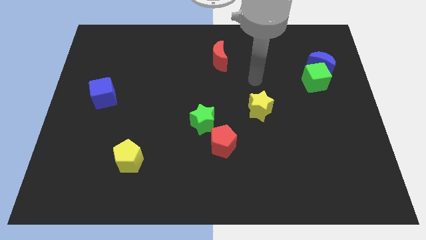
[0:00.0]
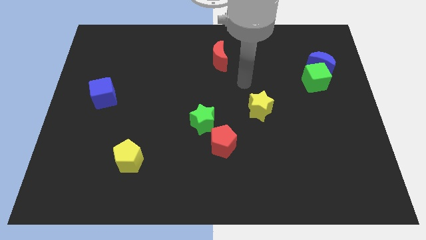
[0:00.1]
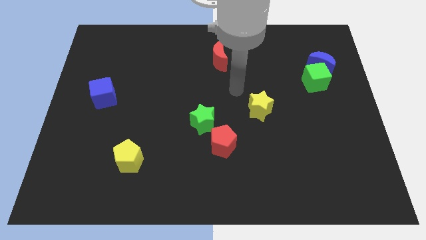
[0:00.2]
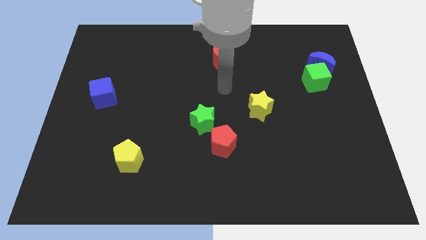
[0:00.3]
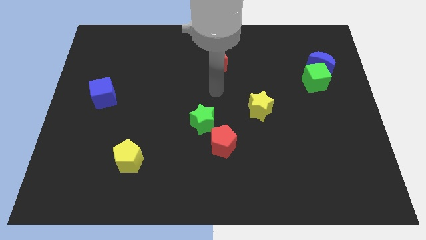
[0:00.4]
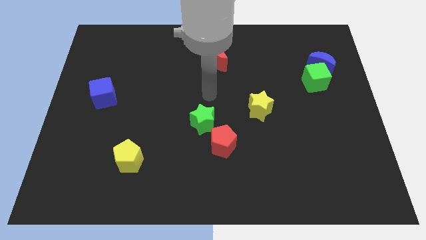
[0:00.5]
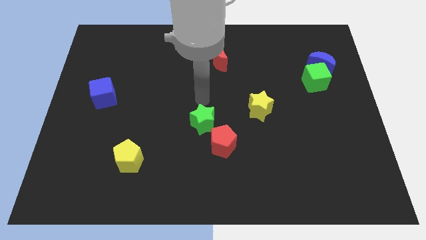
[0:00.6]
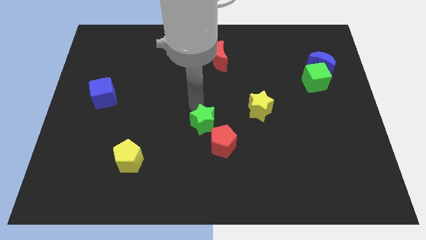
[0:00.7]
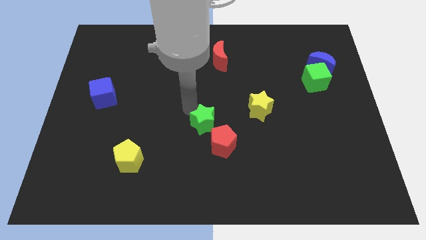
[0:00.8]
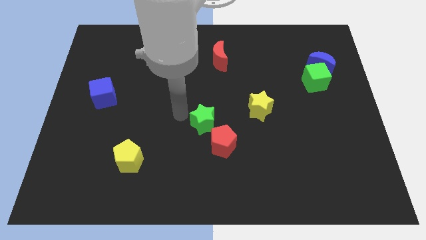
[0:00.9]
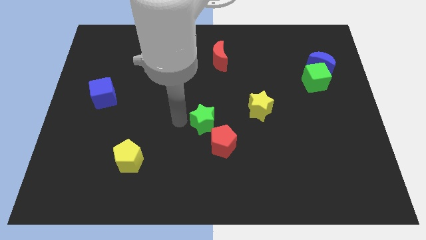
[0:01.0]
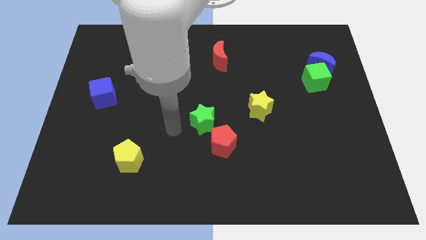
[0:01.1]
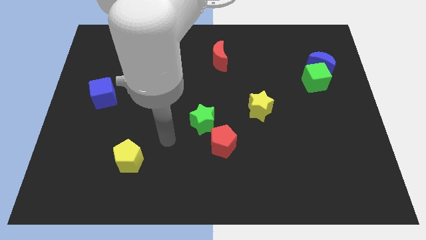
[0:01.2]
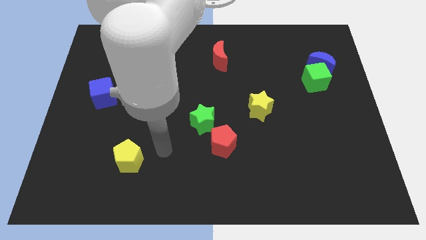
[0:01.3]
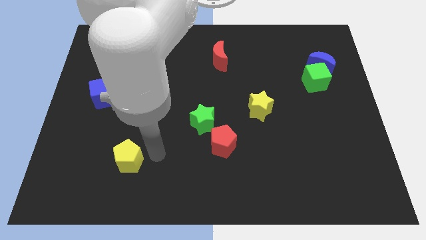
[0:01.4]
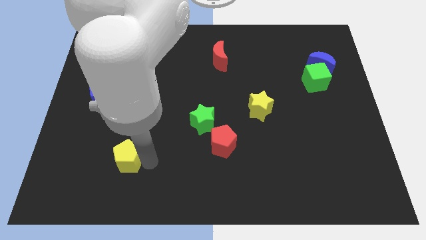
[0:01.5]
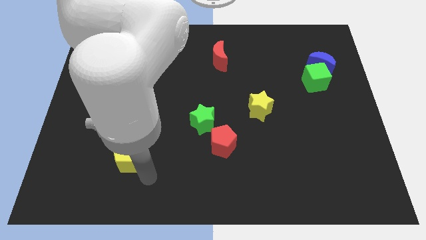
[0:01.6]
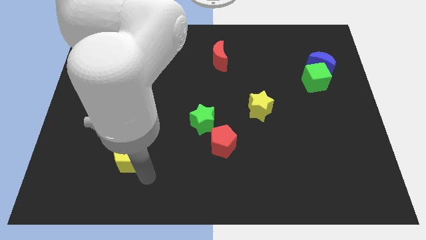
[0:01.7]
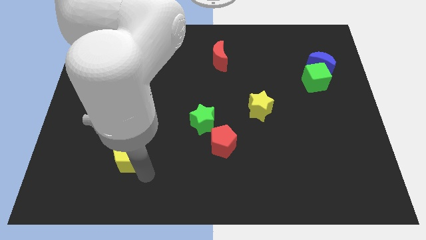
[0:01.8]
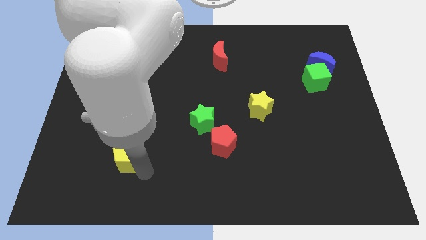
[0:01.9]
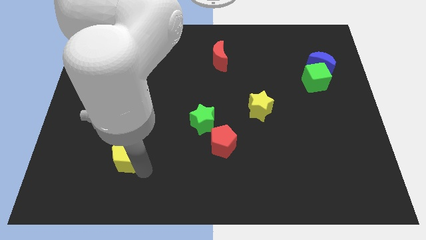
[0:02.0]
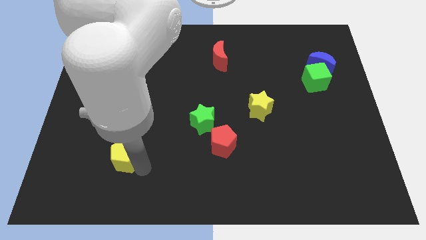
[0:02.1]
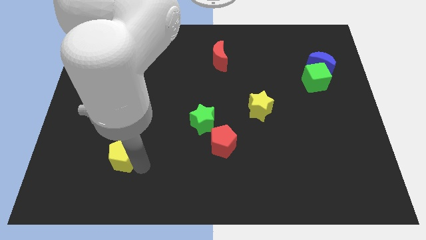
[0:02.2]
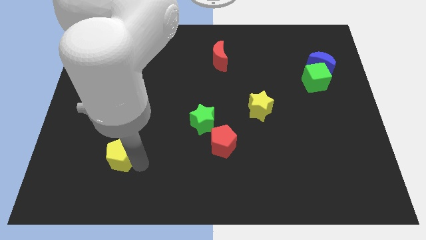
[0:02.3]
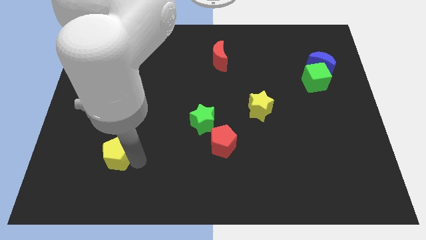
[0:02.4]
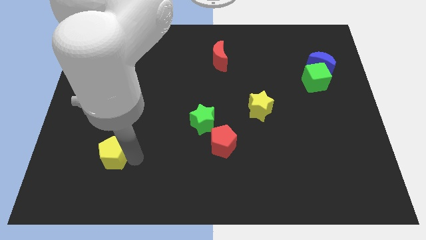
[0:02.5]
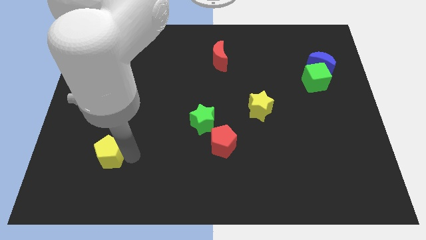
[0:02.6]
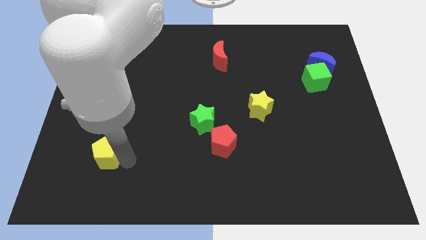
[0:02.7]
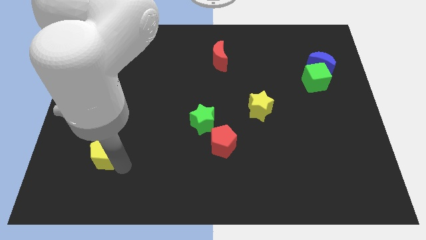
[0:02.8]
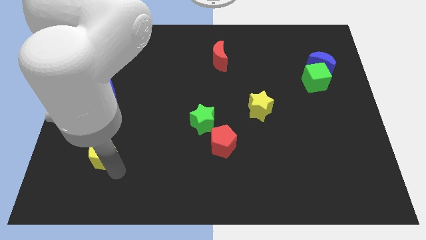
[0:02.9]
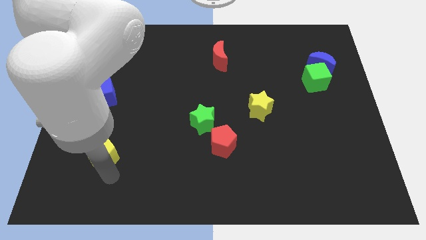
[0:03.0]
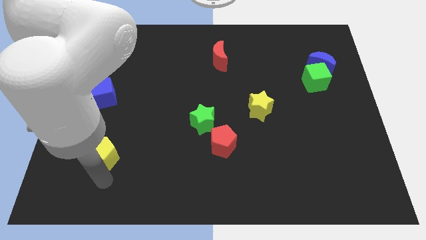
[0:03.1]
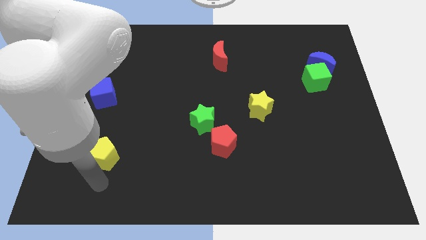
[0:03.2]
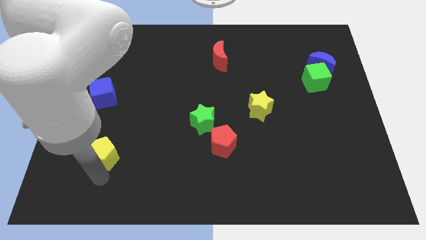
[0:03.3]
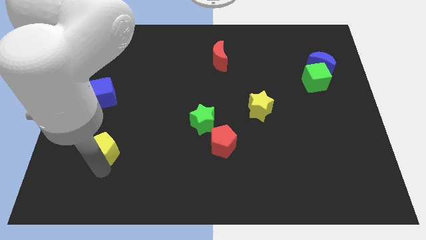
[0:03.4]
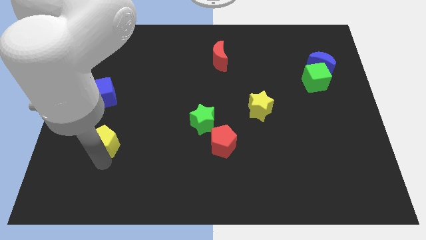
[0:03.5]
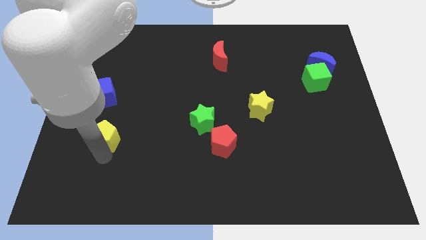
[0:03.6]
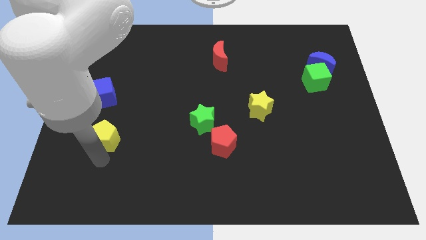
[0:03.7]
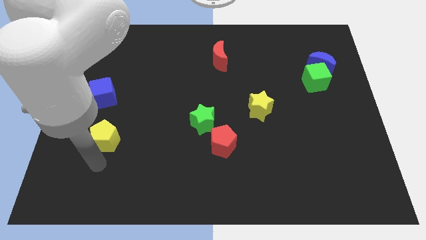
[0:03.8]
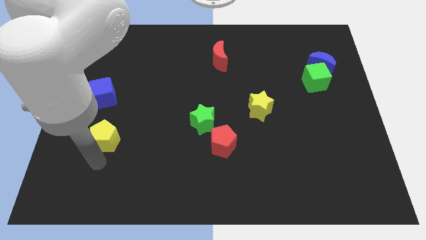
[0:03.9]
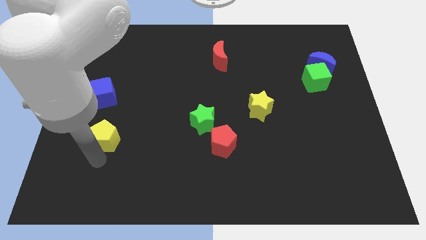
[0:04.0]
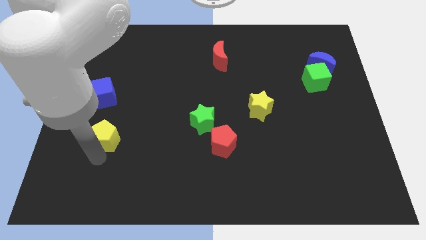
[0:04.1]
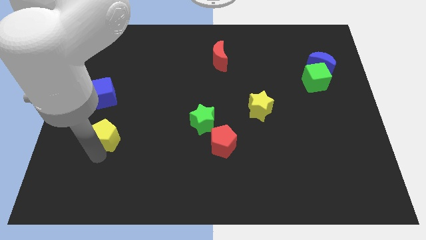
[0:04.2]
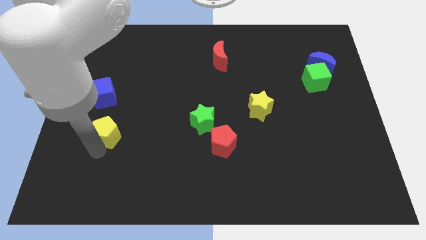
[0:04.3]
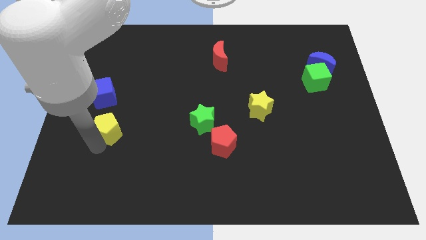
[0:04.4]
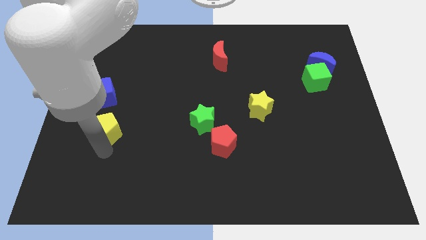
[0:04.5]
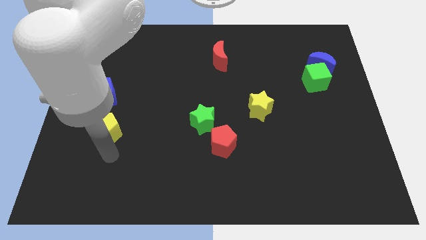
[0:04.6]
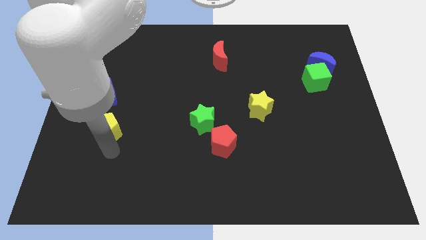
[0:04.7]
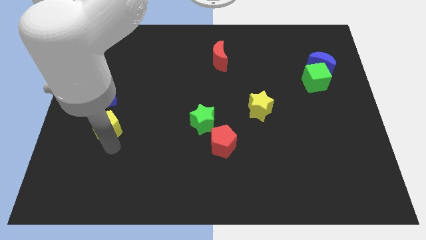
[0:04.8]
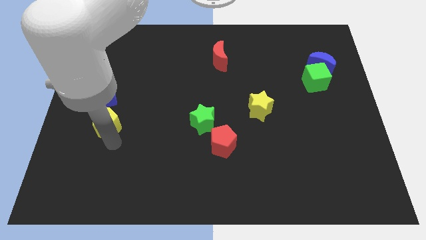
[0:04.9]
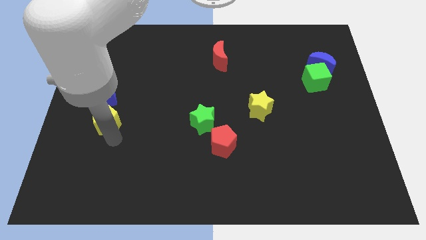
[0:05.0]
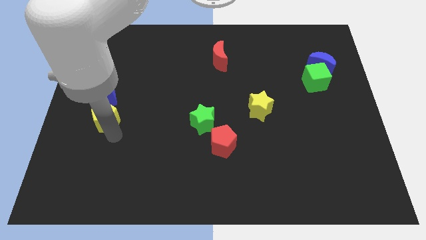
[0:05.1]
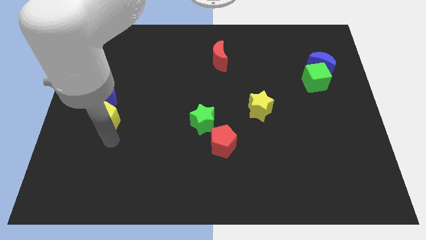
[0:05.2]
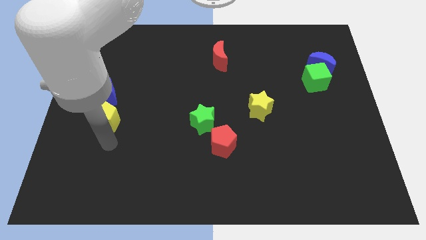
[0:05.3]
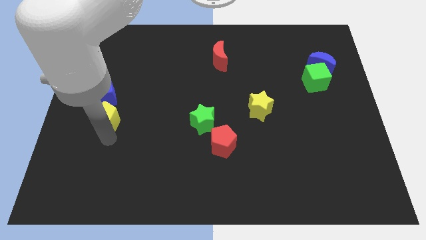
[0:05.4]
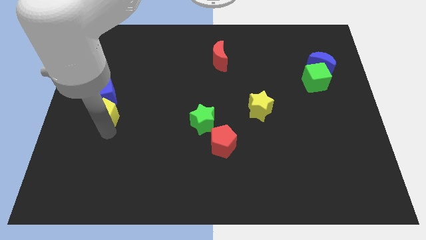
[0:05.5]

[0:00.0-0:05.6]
push the yellow pentagon to the blue cube

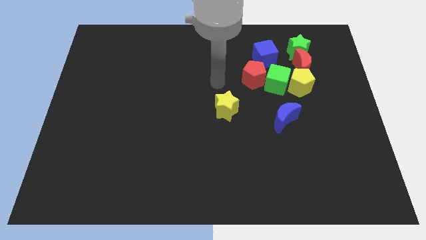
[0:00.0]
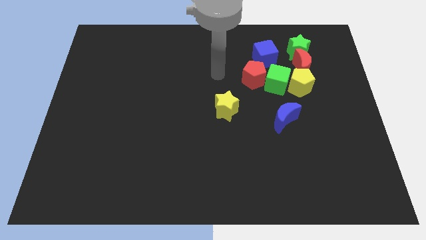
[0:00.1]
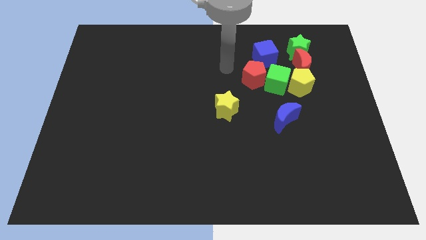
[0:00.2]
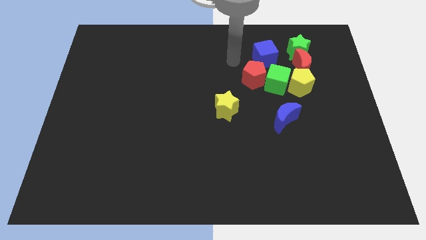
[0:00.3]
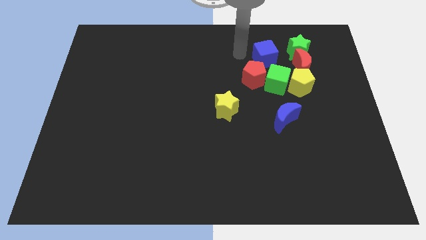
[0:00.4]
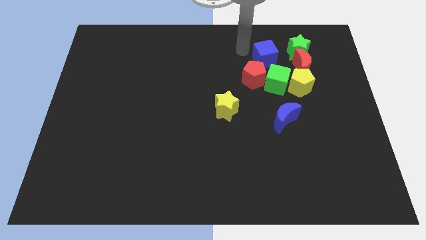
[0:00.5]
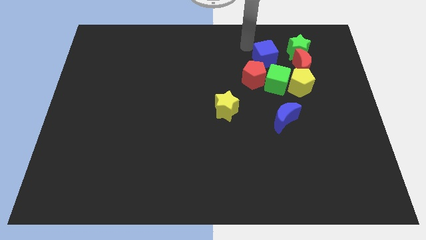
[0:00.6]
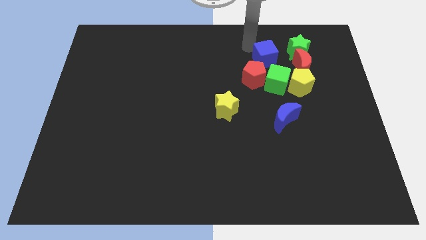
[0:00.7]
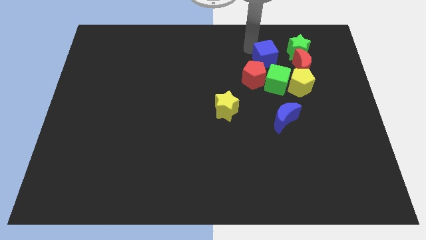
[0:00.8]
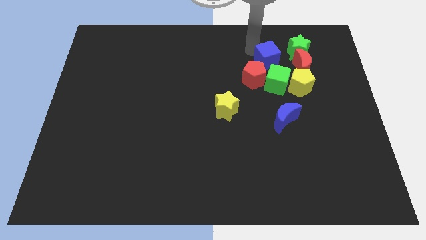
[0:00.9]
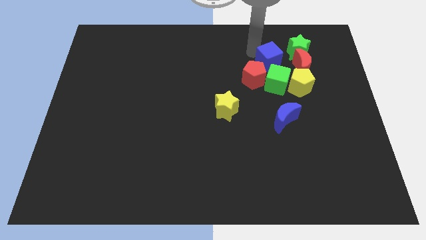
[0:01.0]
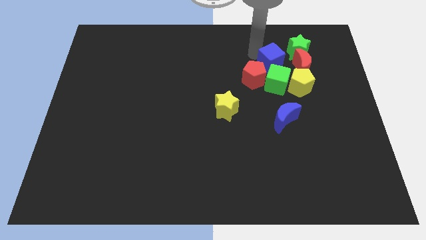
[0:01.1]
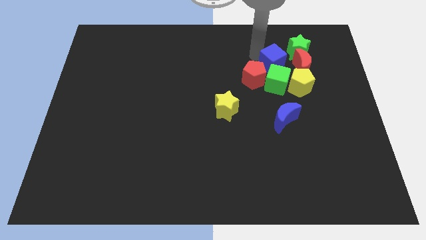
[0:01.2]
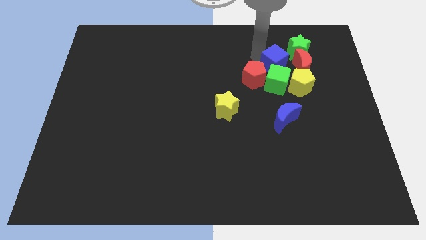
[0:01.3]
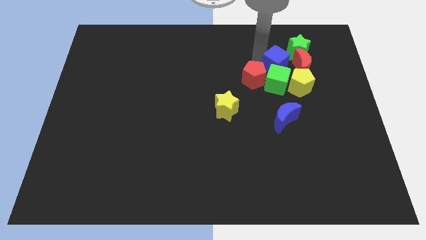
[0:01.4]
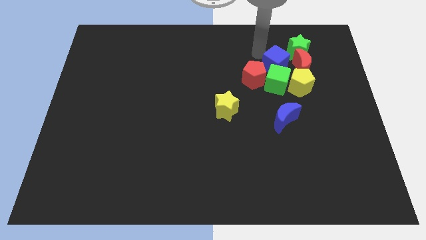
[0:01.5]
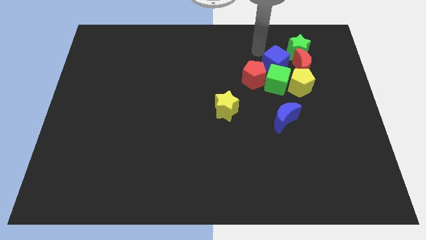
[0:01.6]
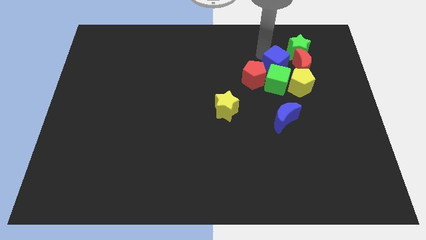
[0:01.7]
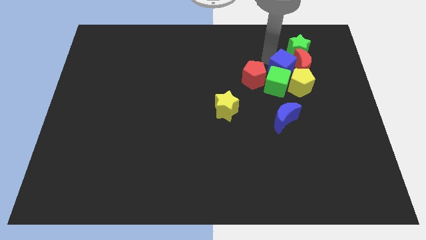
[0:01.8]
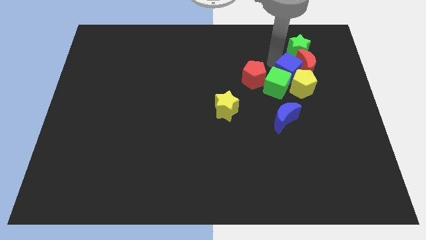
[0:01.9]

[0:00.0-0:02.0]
slide the blue cube next to the yellow pentagon
